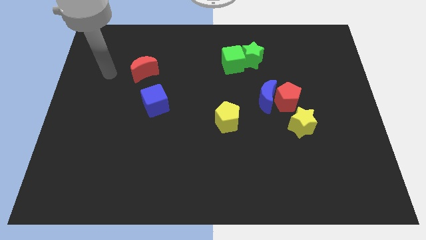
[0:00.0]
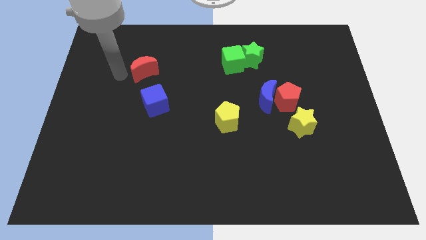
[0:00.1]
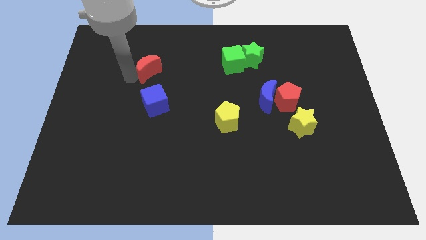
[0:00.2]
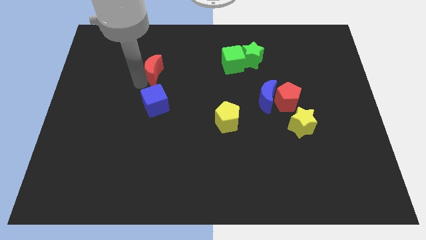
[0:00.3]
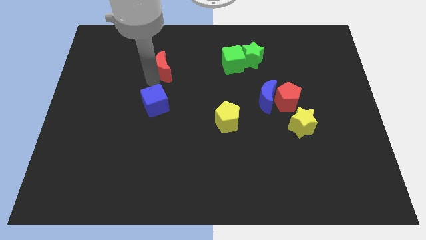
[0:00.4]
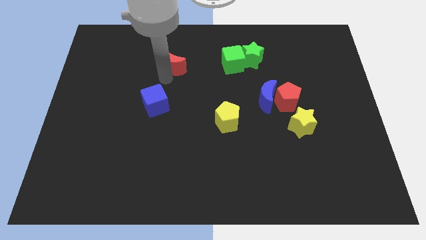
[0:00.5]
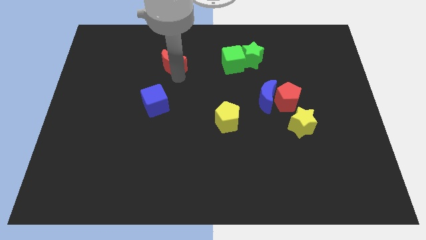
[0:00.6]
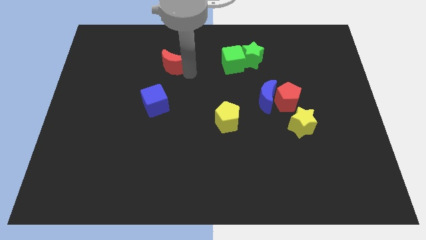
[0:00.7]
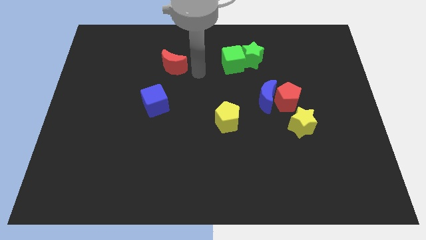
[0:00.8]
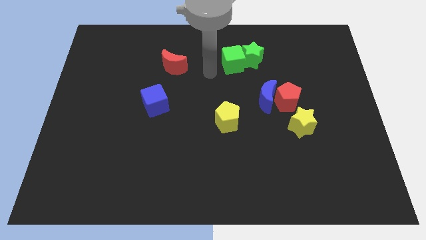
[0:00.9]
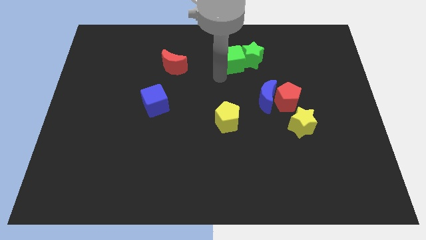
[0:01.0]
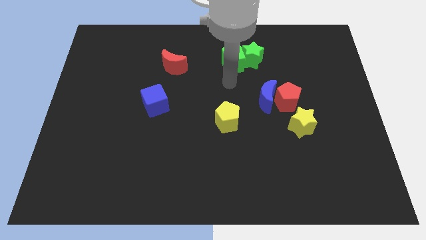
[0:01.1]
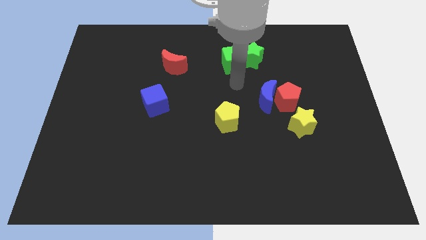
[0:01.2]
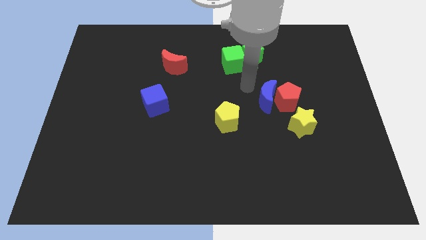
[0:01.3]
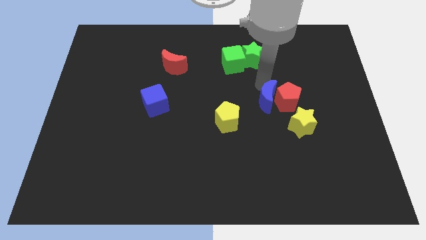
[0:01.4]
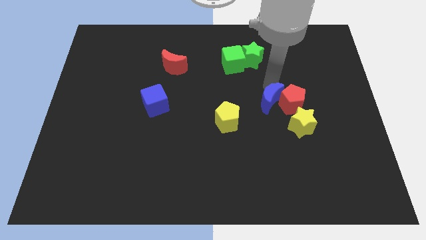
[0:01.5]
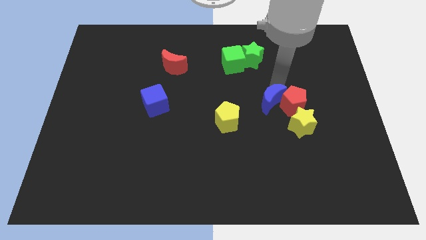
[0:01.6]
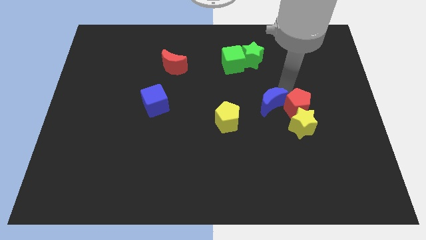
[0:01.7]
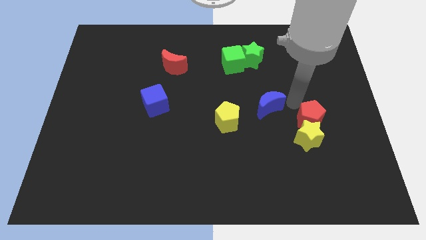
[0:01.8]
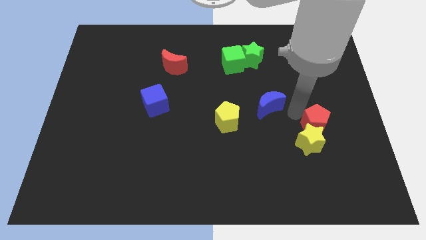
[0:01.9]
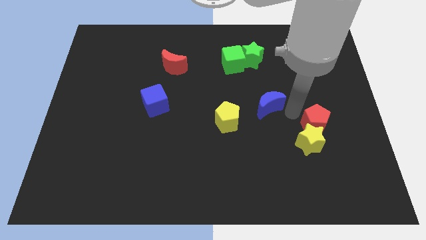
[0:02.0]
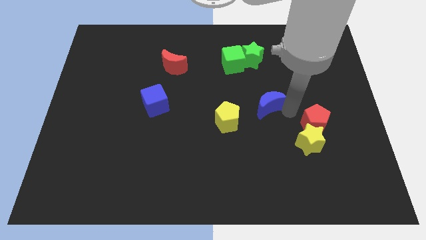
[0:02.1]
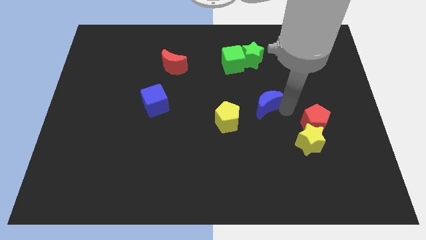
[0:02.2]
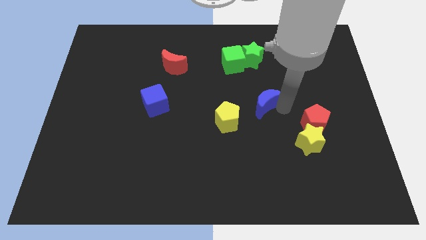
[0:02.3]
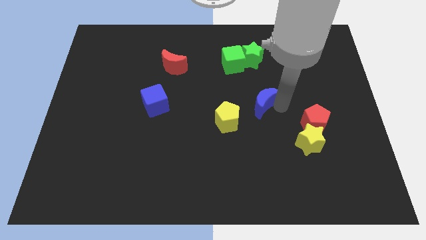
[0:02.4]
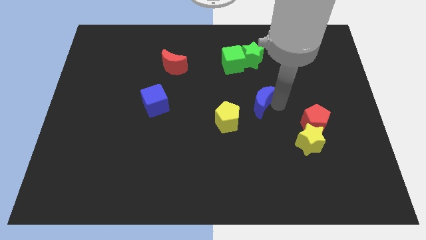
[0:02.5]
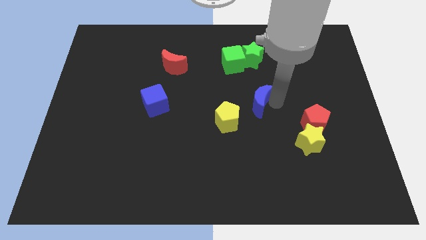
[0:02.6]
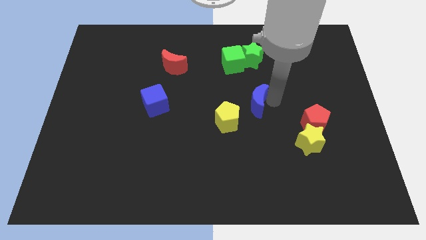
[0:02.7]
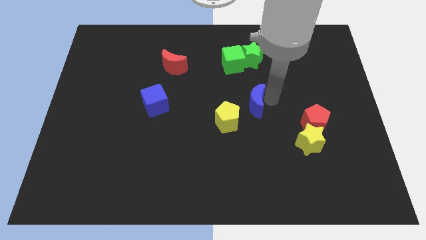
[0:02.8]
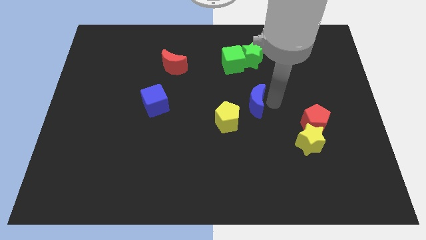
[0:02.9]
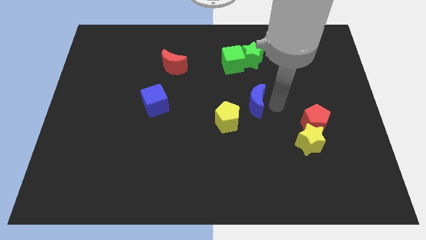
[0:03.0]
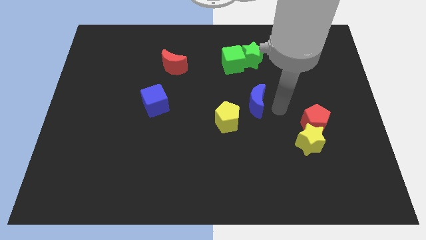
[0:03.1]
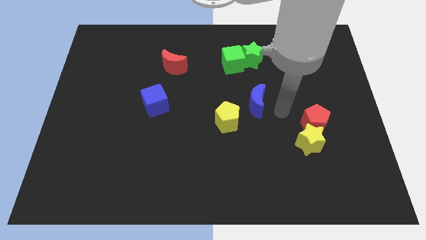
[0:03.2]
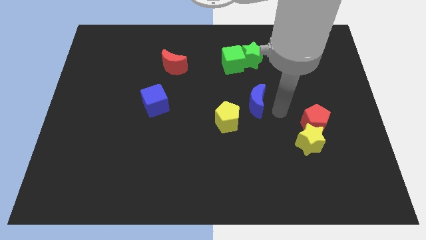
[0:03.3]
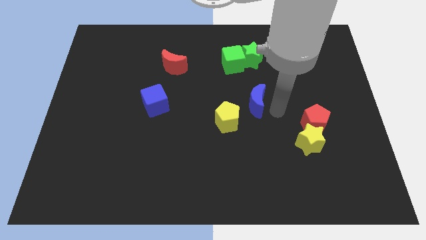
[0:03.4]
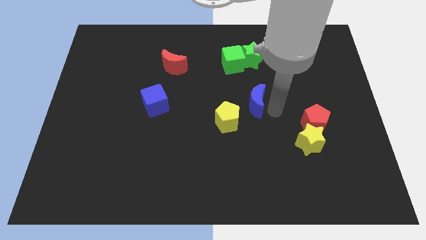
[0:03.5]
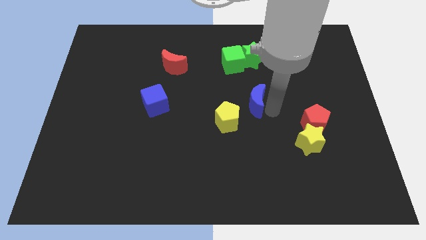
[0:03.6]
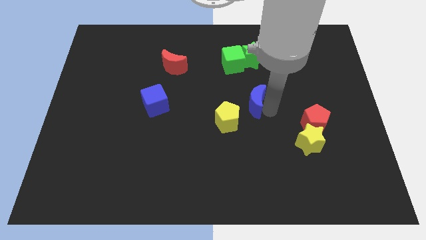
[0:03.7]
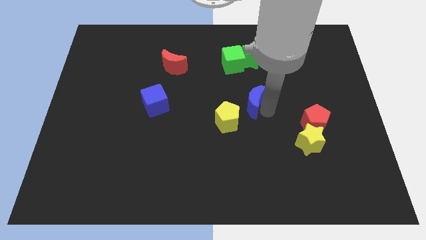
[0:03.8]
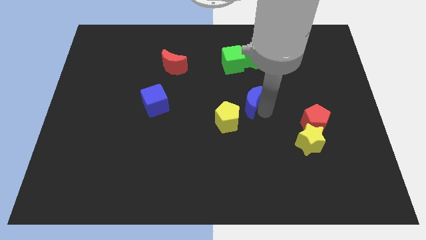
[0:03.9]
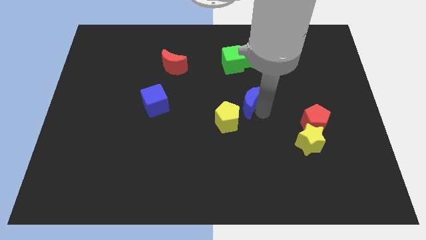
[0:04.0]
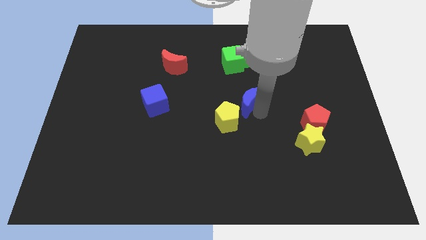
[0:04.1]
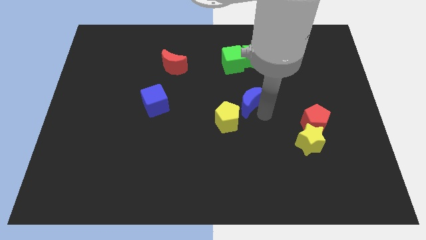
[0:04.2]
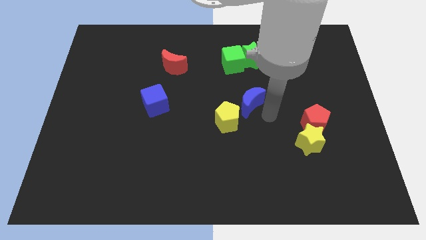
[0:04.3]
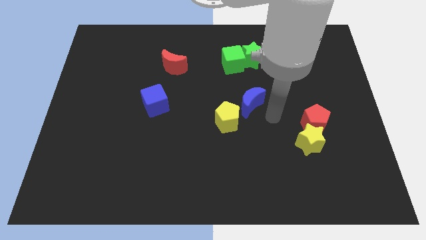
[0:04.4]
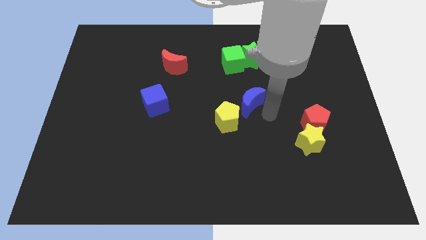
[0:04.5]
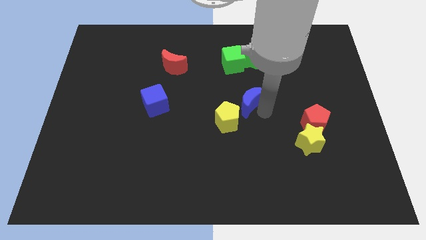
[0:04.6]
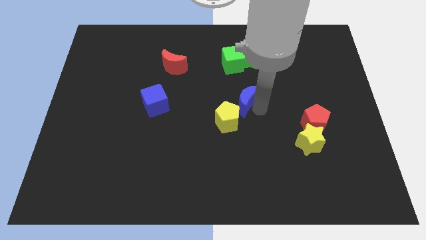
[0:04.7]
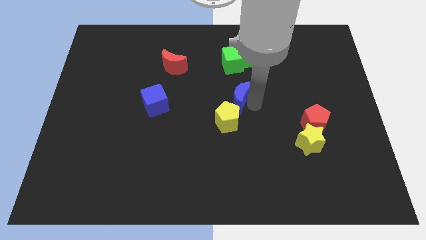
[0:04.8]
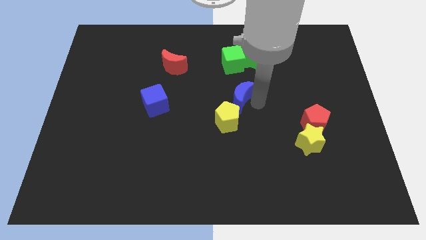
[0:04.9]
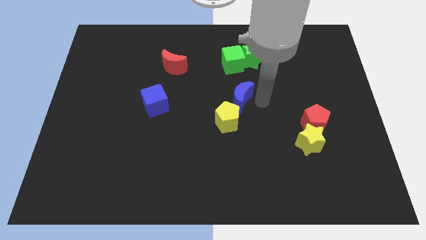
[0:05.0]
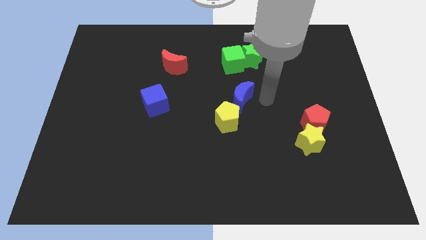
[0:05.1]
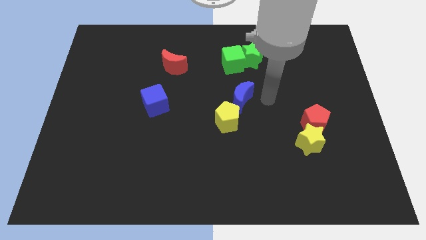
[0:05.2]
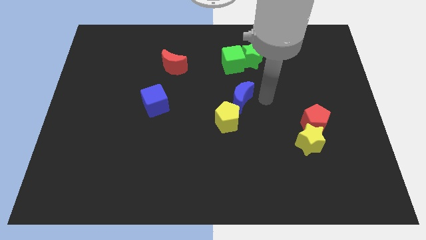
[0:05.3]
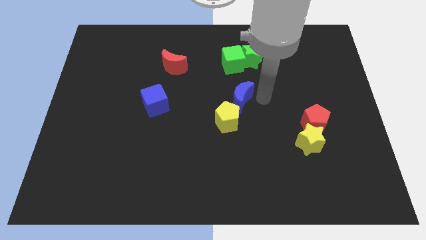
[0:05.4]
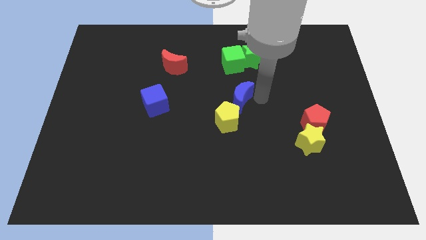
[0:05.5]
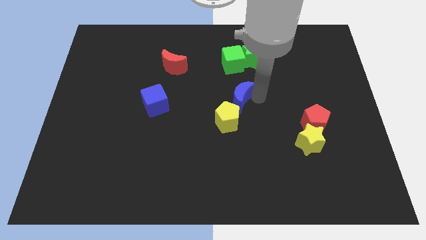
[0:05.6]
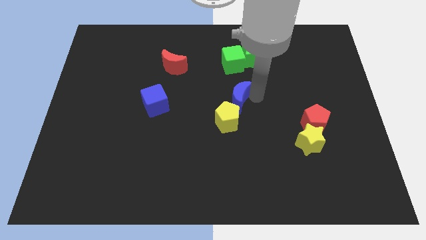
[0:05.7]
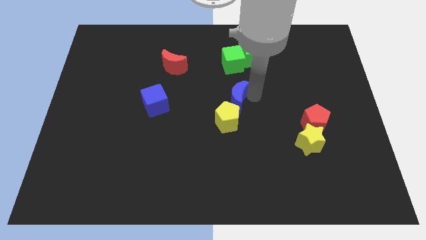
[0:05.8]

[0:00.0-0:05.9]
move the blue moon to the left slightly

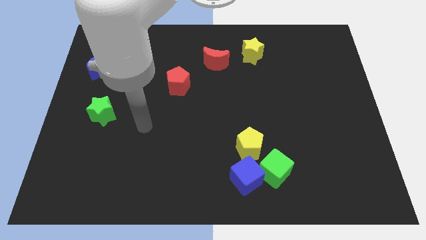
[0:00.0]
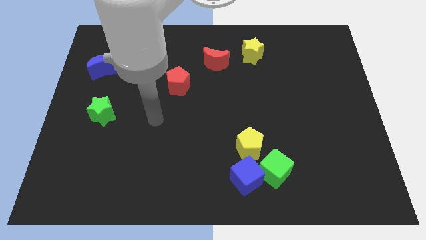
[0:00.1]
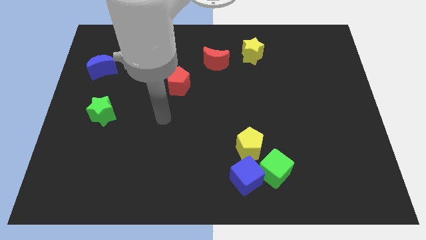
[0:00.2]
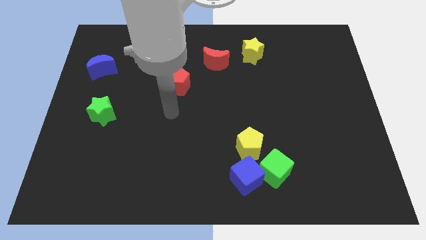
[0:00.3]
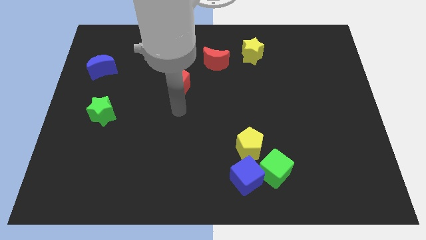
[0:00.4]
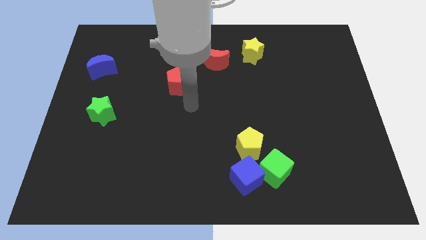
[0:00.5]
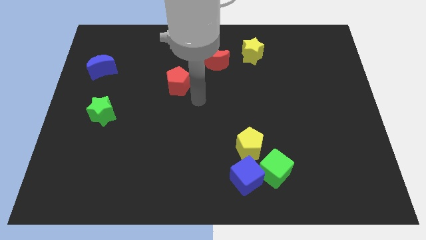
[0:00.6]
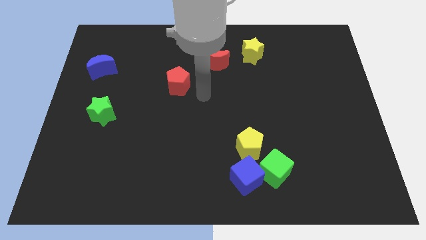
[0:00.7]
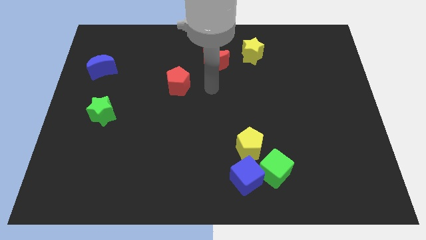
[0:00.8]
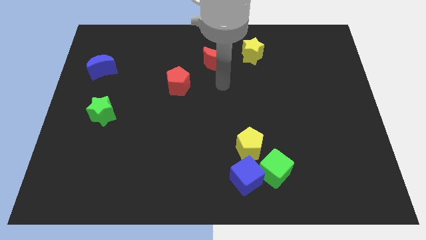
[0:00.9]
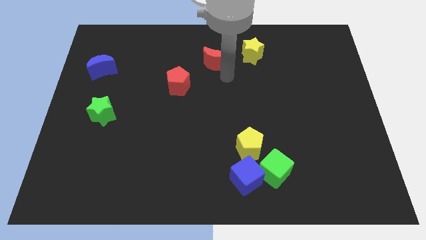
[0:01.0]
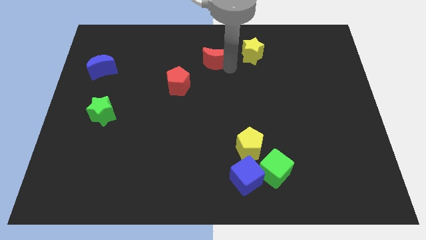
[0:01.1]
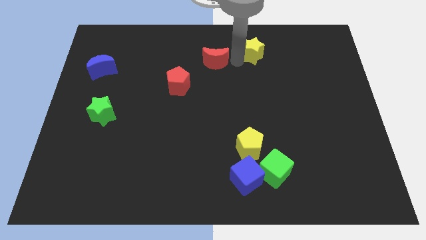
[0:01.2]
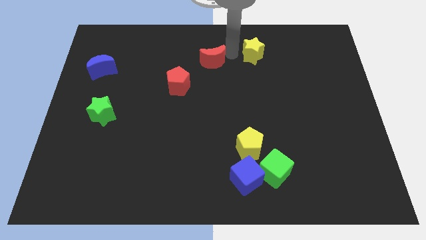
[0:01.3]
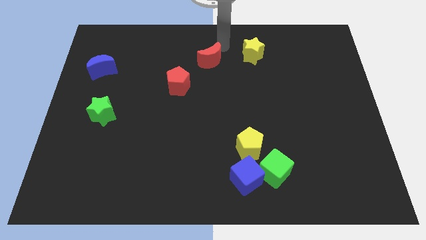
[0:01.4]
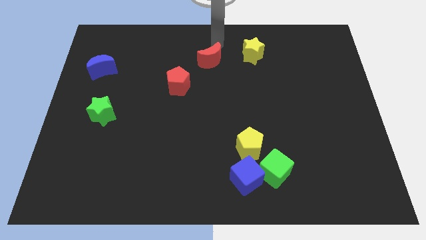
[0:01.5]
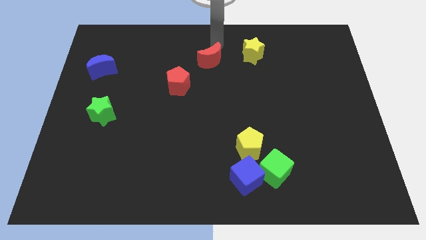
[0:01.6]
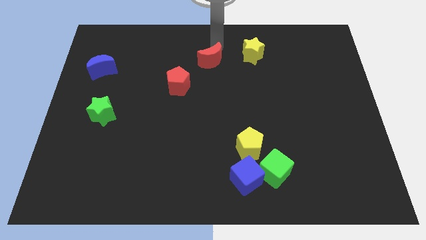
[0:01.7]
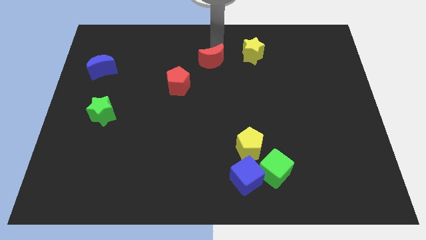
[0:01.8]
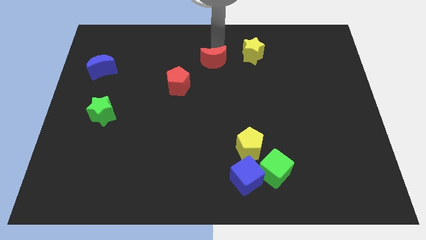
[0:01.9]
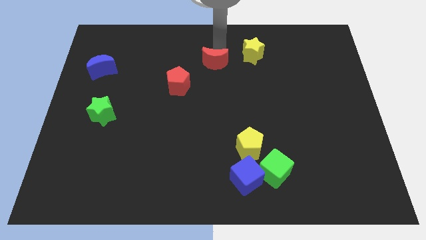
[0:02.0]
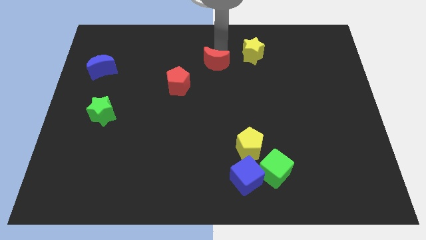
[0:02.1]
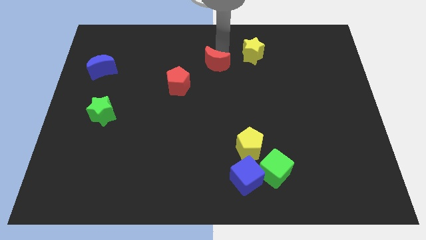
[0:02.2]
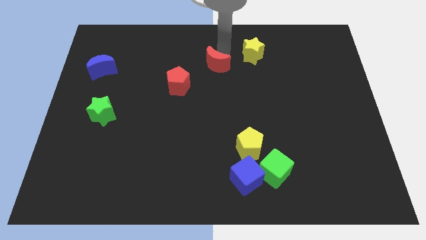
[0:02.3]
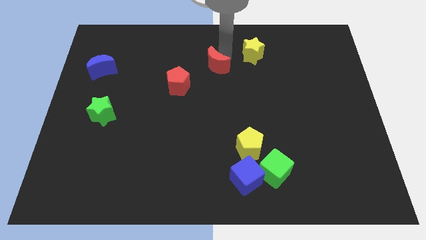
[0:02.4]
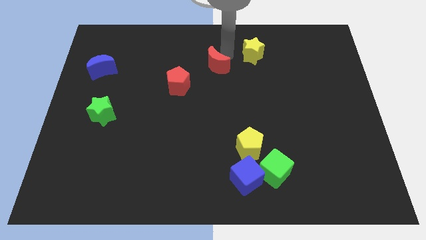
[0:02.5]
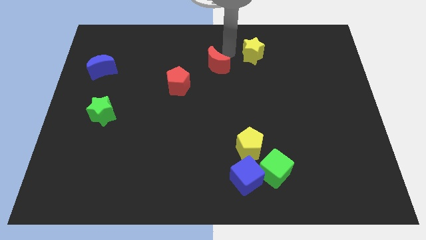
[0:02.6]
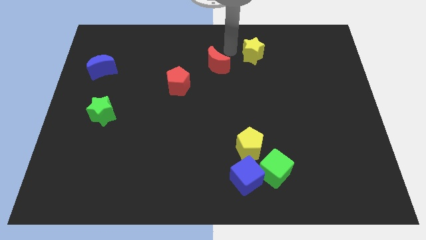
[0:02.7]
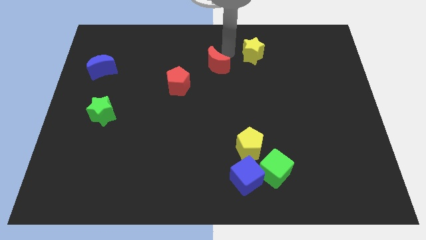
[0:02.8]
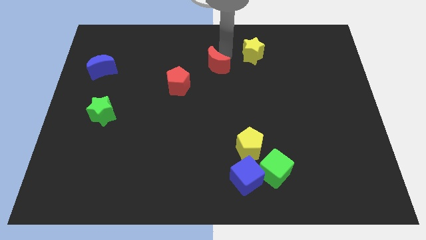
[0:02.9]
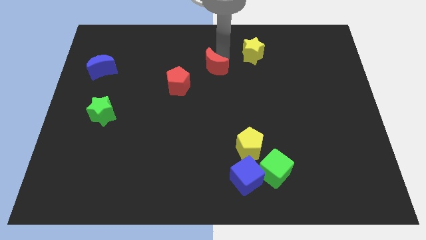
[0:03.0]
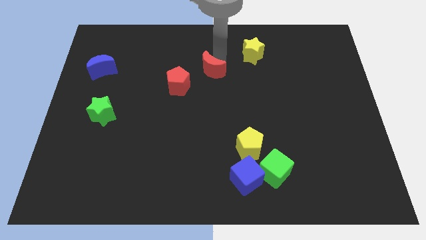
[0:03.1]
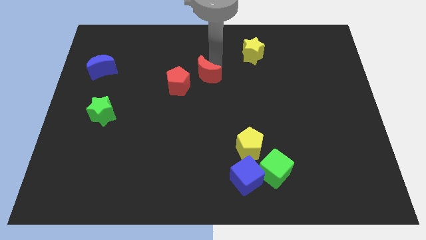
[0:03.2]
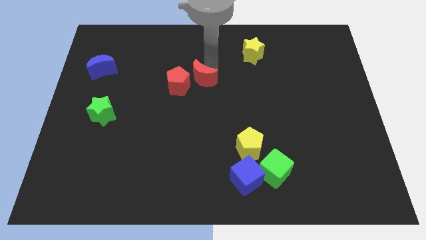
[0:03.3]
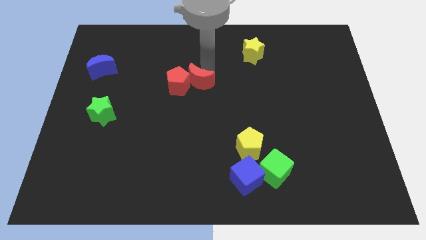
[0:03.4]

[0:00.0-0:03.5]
push the red moon a little bit downwards and left diagonally
